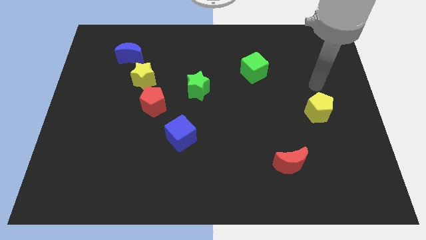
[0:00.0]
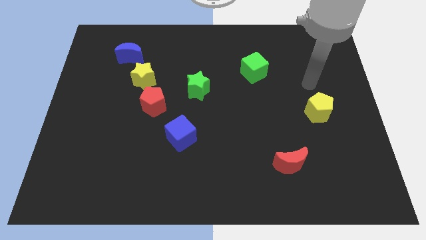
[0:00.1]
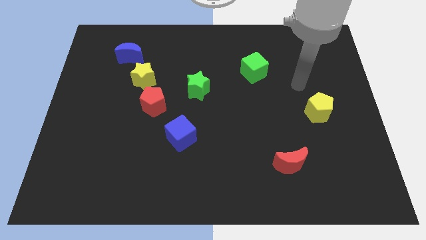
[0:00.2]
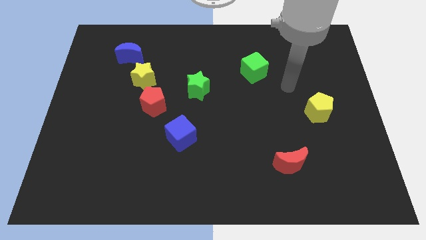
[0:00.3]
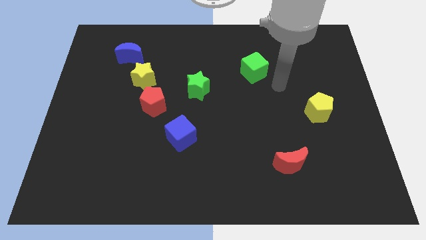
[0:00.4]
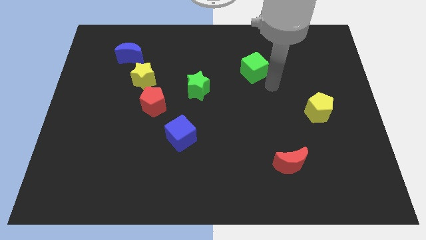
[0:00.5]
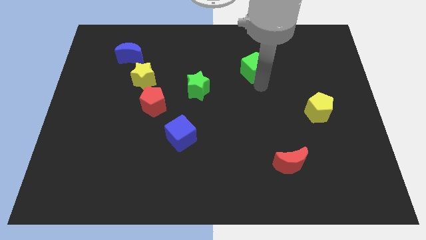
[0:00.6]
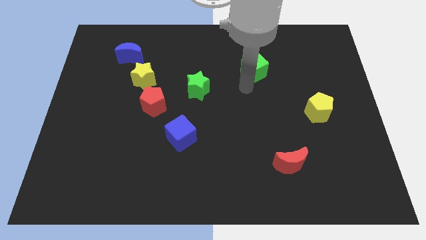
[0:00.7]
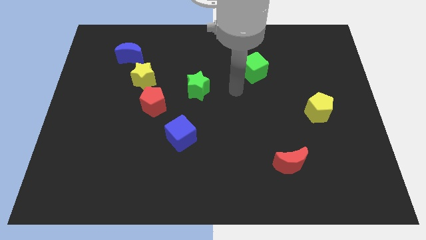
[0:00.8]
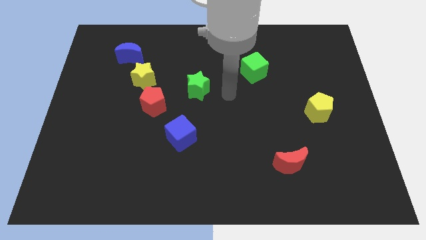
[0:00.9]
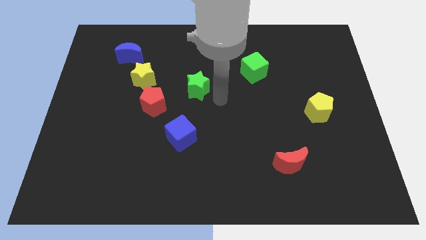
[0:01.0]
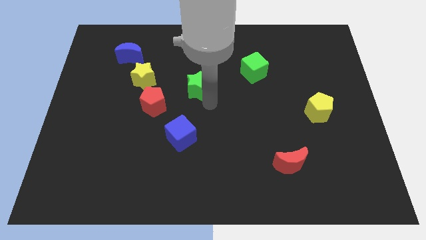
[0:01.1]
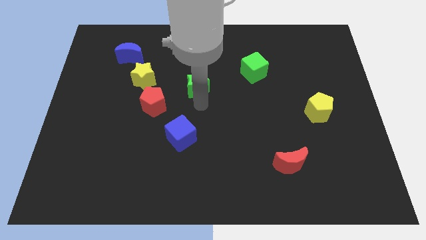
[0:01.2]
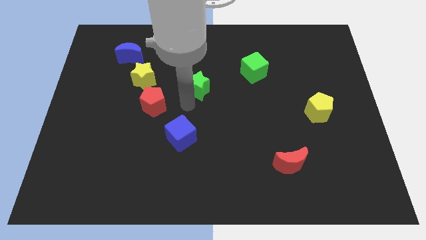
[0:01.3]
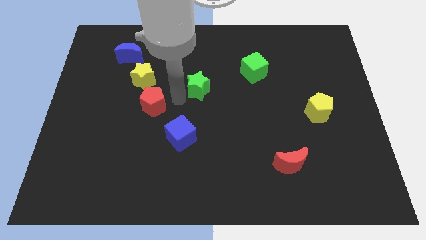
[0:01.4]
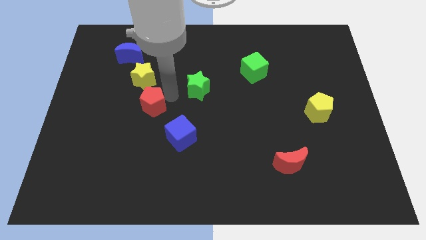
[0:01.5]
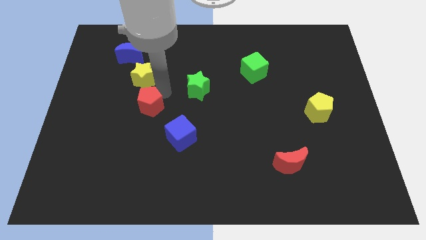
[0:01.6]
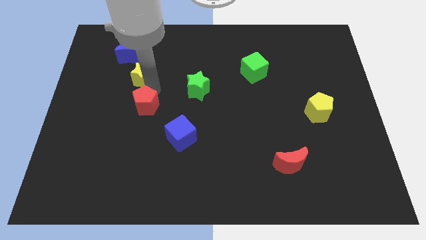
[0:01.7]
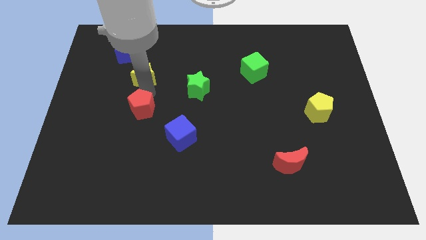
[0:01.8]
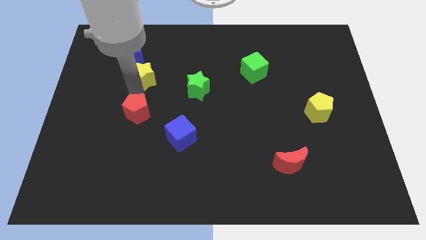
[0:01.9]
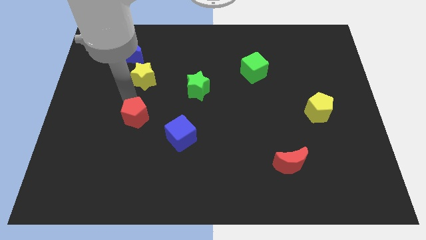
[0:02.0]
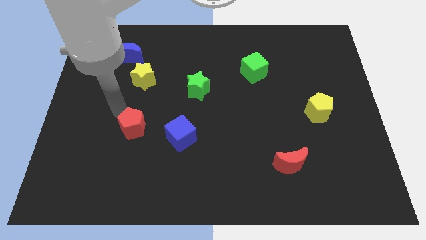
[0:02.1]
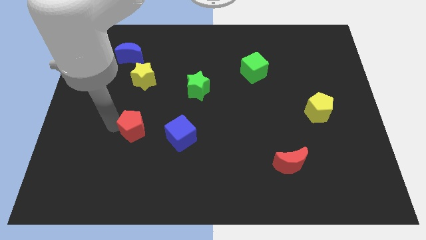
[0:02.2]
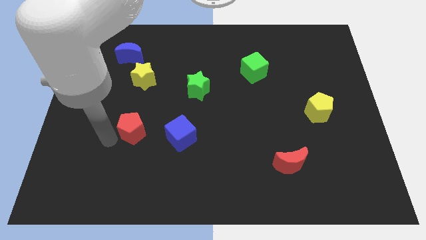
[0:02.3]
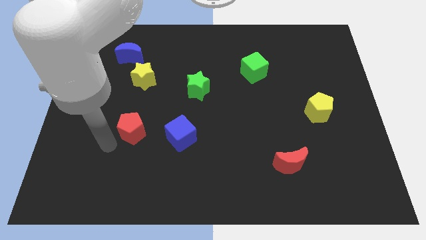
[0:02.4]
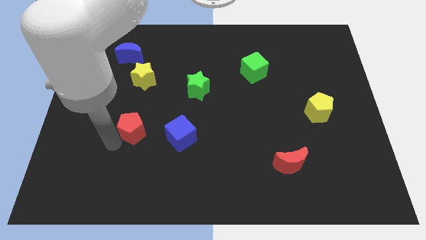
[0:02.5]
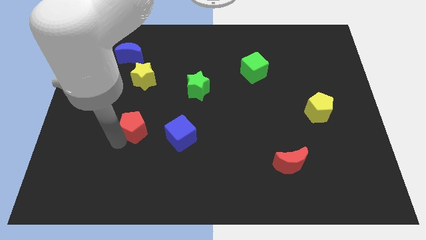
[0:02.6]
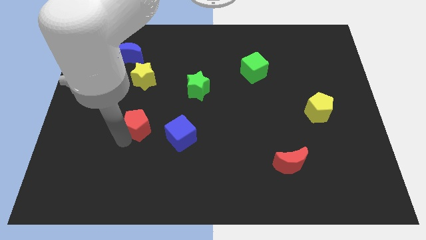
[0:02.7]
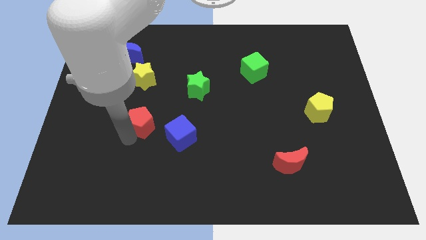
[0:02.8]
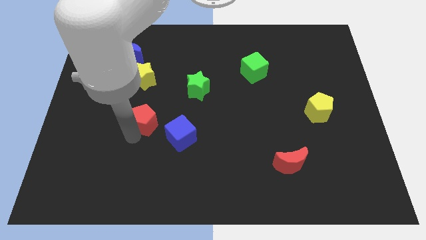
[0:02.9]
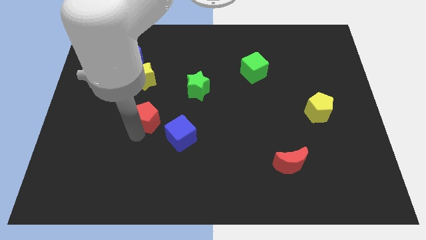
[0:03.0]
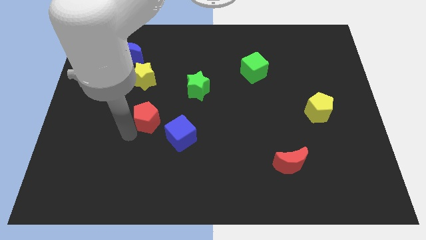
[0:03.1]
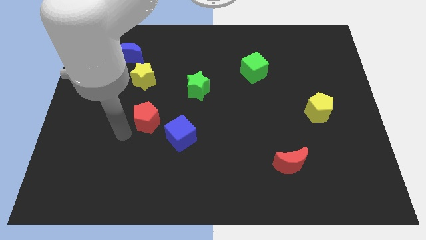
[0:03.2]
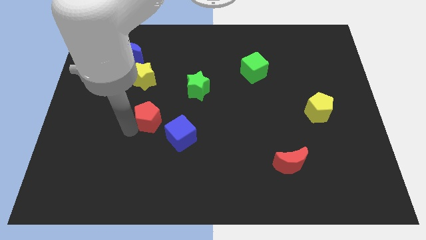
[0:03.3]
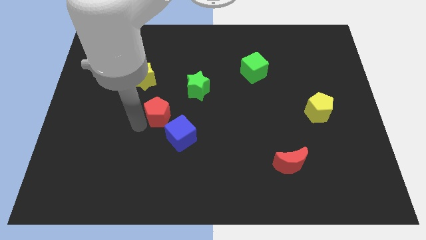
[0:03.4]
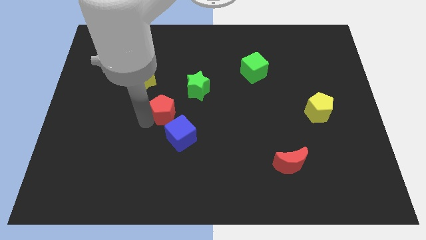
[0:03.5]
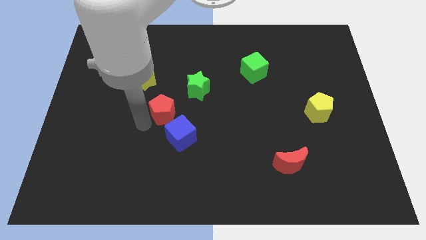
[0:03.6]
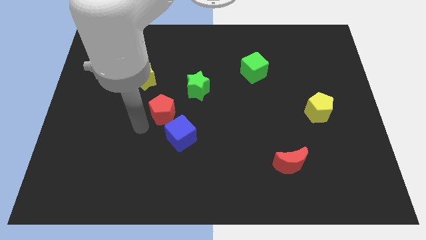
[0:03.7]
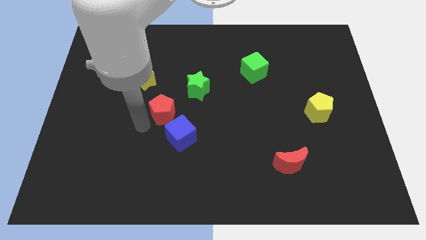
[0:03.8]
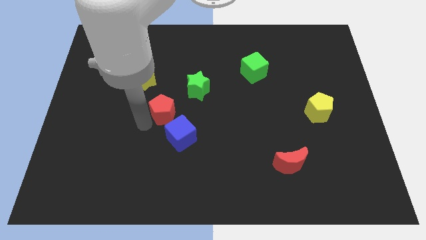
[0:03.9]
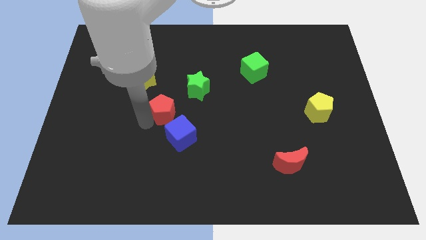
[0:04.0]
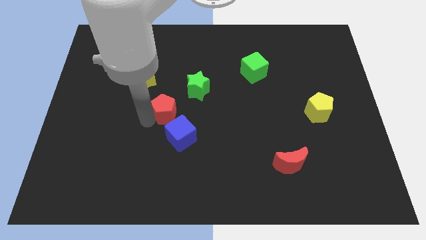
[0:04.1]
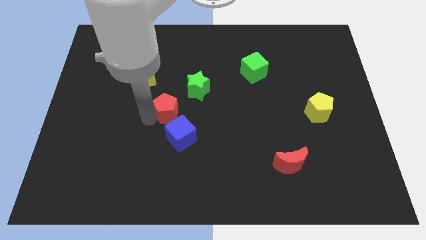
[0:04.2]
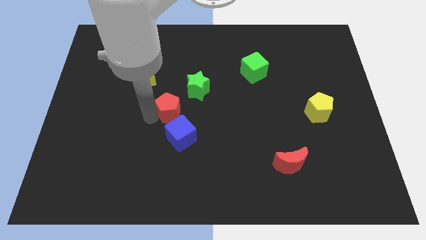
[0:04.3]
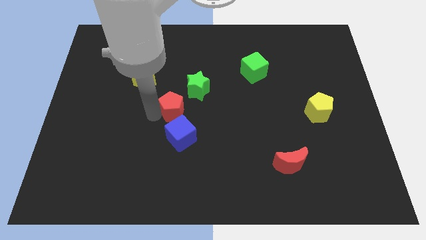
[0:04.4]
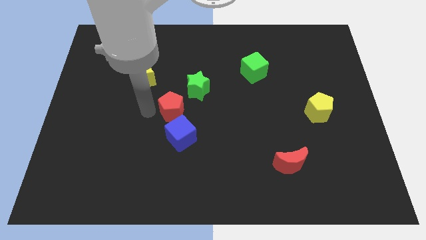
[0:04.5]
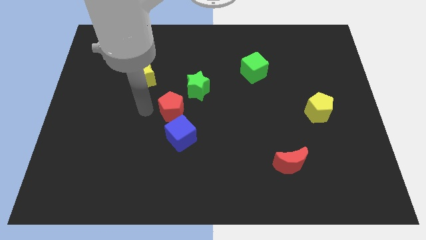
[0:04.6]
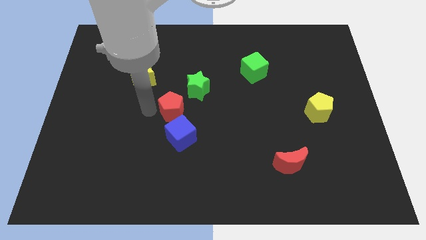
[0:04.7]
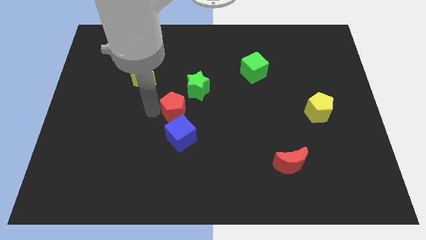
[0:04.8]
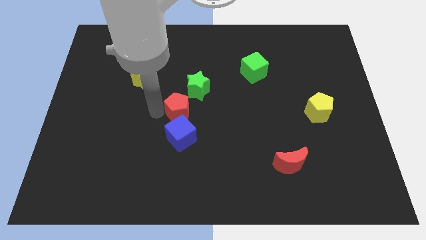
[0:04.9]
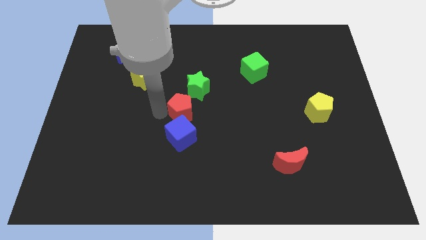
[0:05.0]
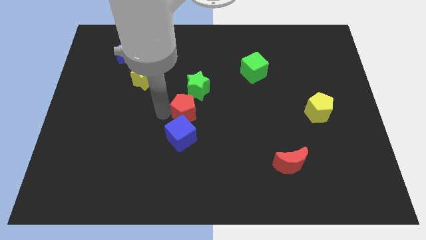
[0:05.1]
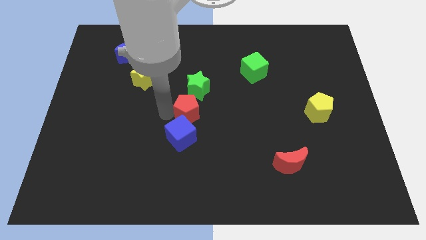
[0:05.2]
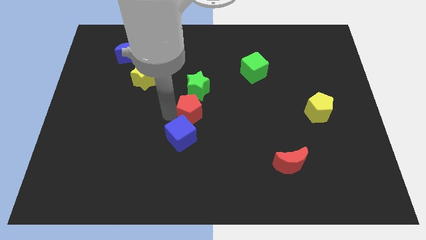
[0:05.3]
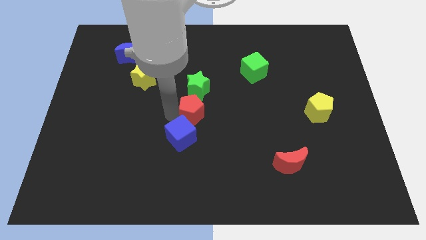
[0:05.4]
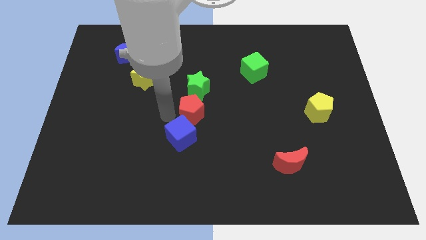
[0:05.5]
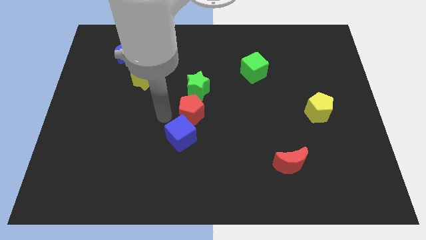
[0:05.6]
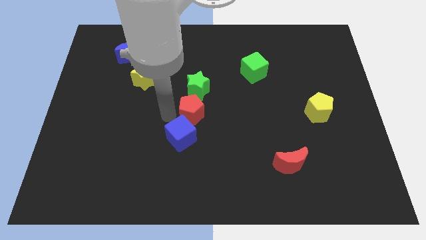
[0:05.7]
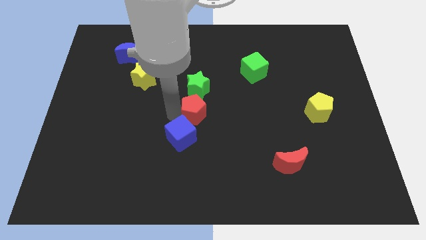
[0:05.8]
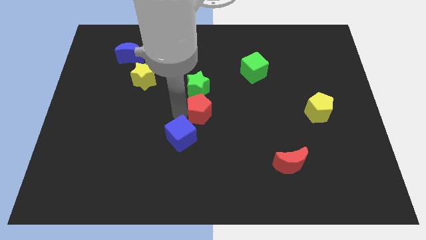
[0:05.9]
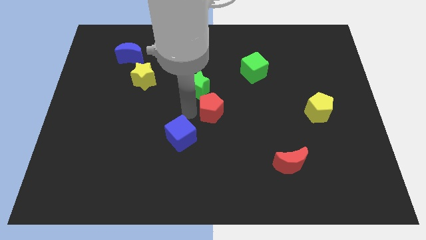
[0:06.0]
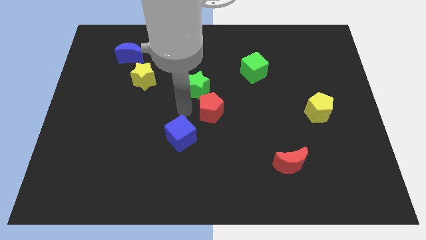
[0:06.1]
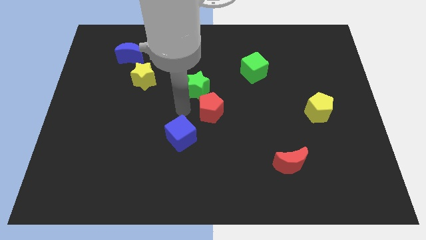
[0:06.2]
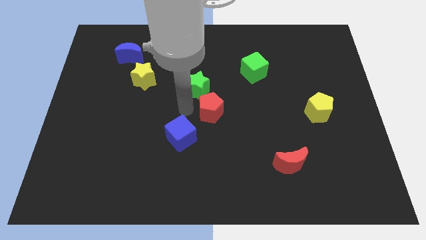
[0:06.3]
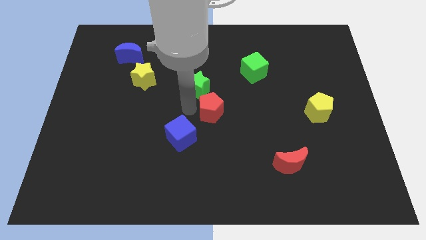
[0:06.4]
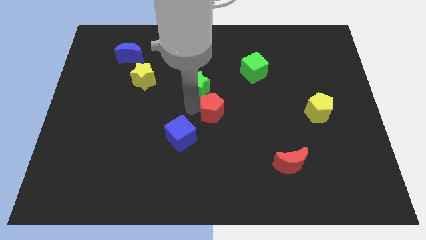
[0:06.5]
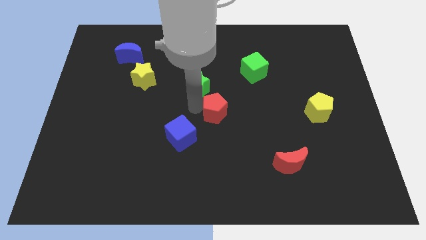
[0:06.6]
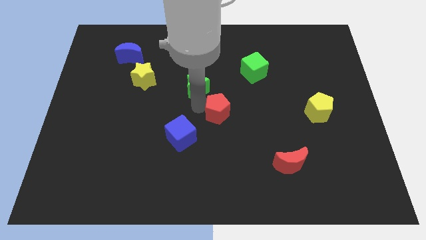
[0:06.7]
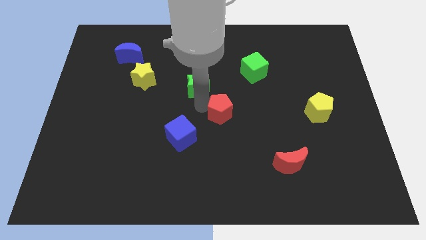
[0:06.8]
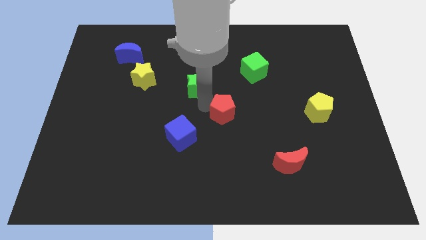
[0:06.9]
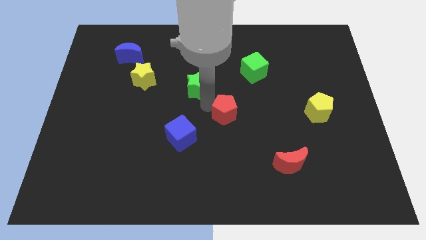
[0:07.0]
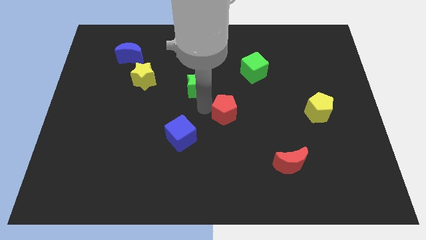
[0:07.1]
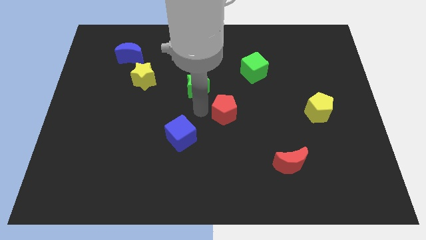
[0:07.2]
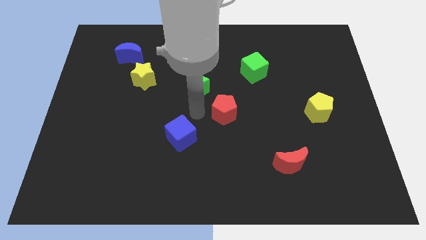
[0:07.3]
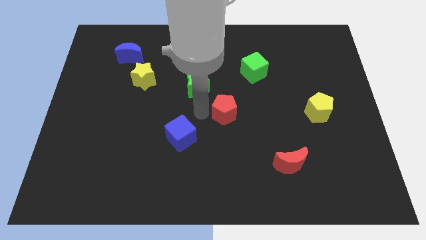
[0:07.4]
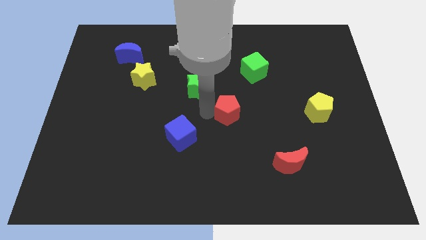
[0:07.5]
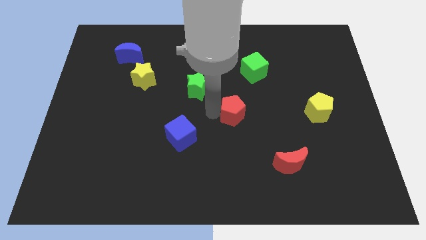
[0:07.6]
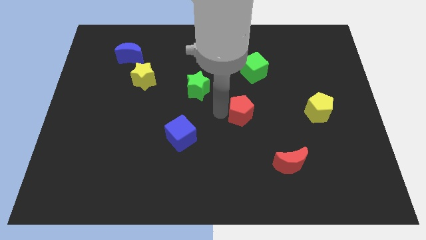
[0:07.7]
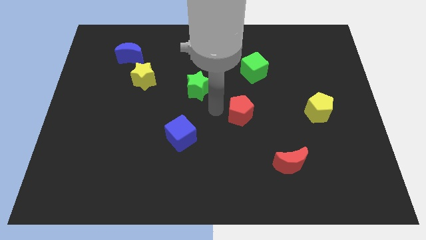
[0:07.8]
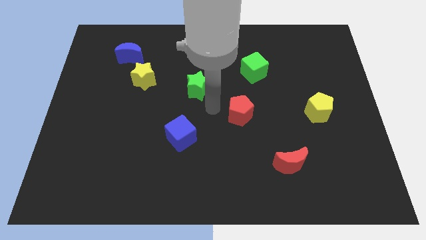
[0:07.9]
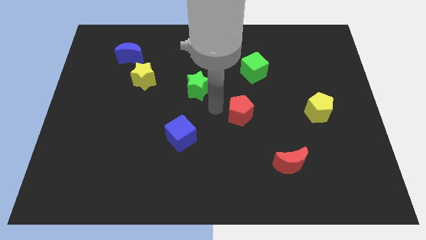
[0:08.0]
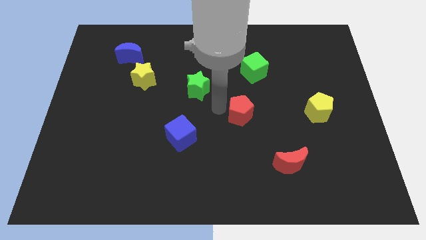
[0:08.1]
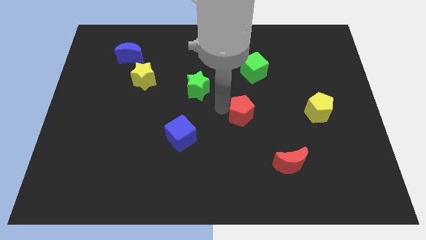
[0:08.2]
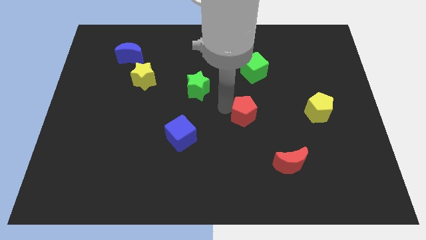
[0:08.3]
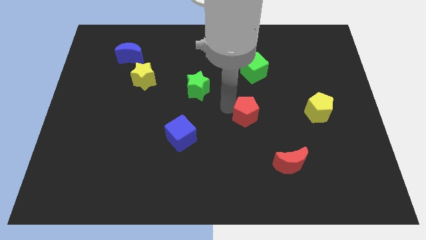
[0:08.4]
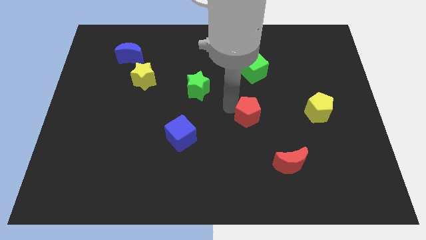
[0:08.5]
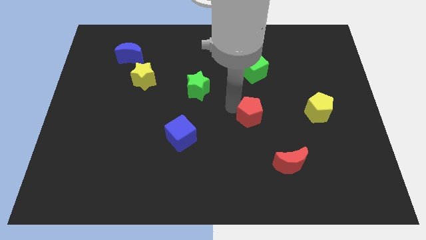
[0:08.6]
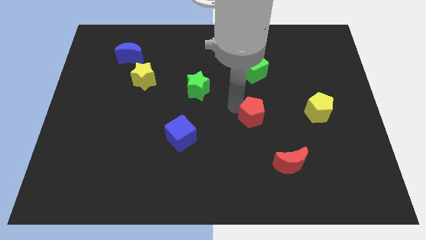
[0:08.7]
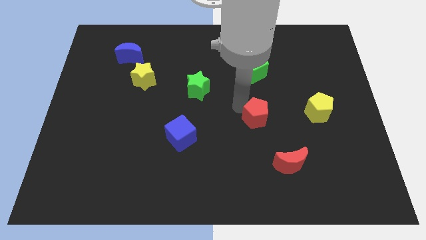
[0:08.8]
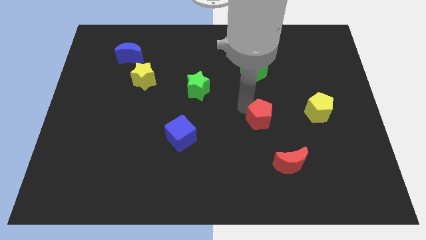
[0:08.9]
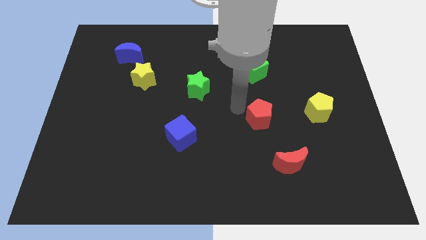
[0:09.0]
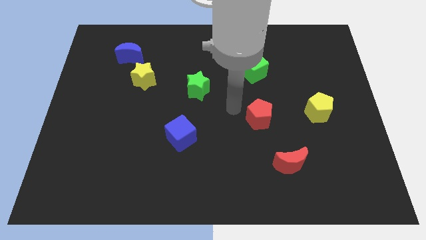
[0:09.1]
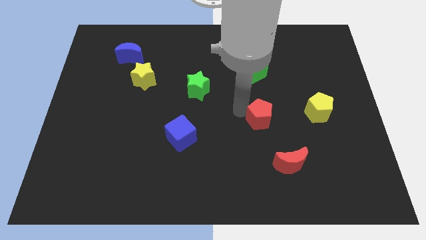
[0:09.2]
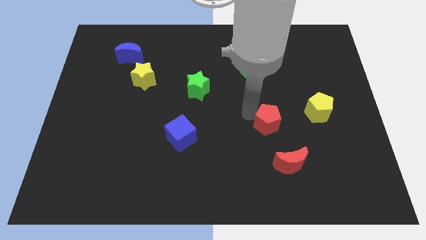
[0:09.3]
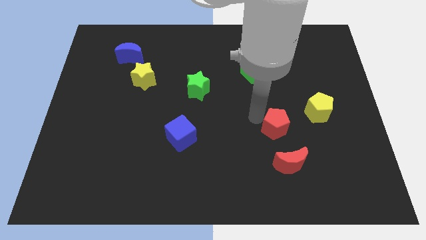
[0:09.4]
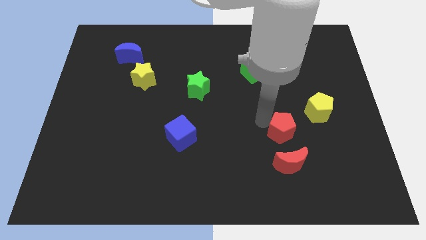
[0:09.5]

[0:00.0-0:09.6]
push the red pentagon diagonally down and to the left of the yellow pentagon
